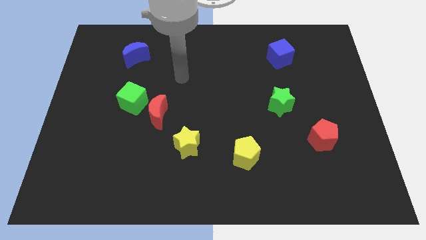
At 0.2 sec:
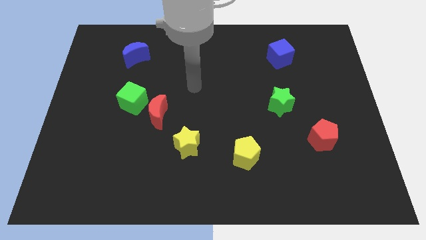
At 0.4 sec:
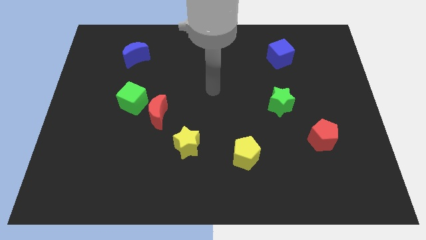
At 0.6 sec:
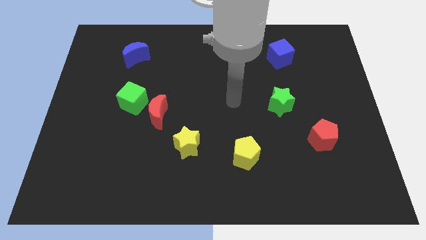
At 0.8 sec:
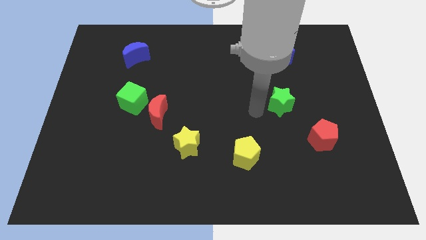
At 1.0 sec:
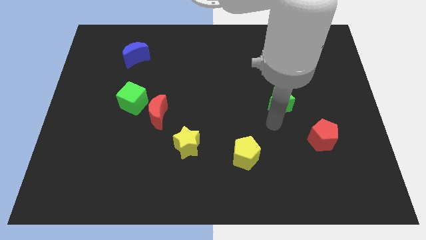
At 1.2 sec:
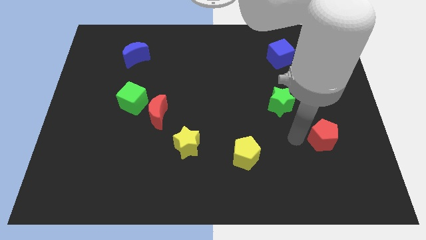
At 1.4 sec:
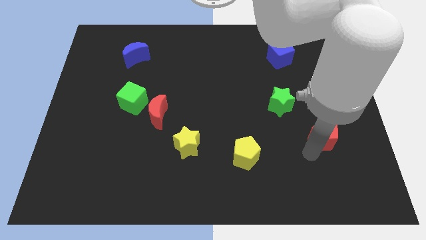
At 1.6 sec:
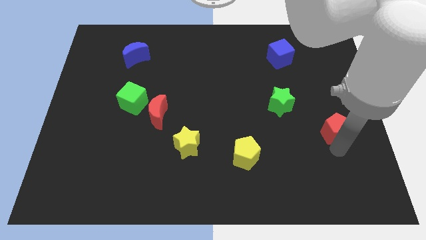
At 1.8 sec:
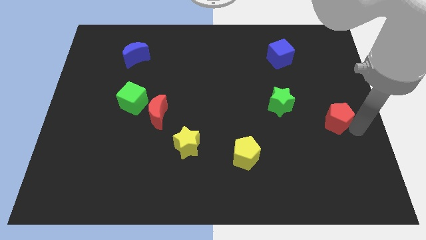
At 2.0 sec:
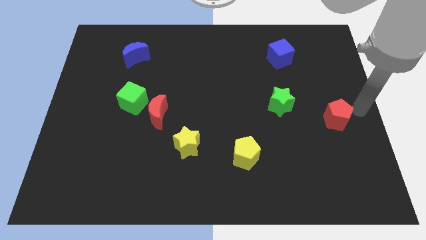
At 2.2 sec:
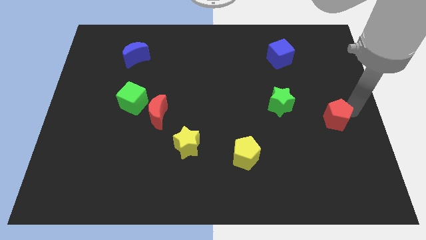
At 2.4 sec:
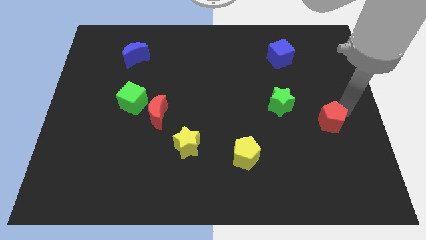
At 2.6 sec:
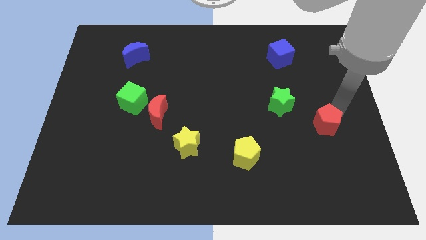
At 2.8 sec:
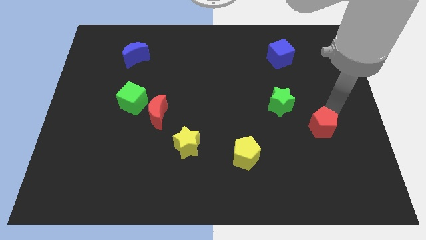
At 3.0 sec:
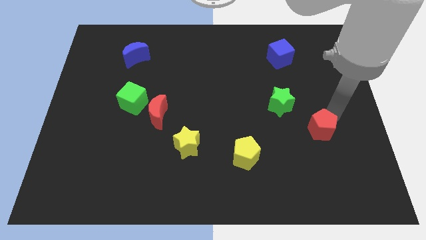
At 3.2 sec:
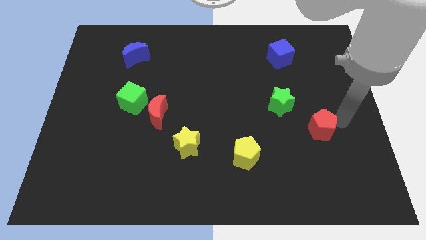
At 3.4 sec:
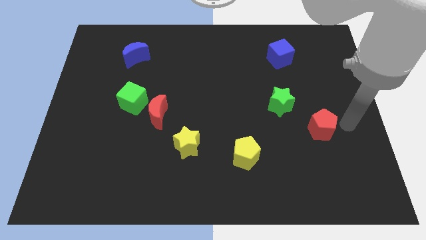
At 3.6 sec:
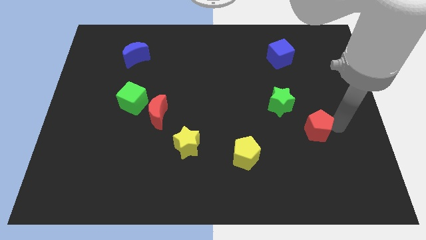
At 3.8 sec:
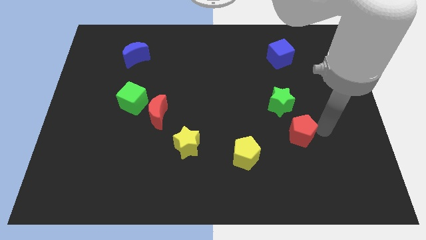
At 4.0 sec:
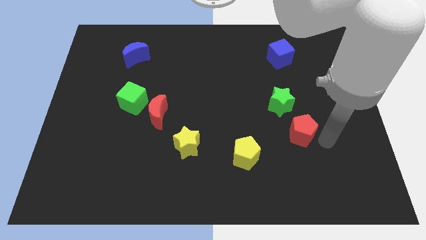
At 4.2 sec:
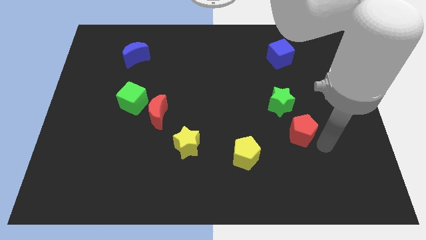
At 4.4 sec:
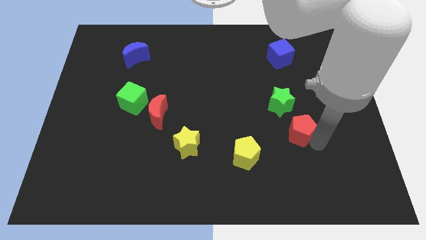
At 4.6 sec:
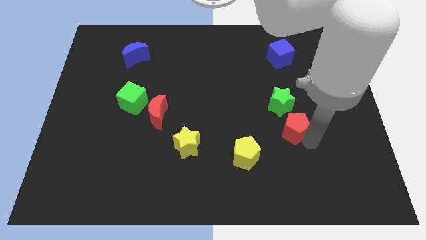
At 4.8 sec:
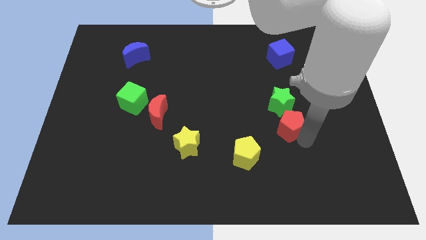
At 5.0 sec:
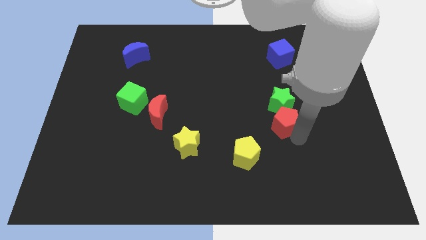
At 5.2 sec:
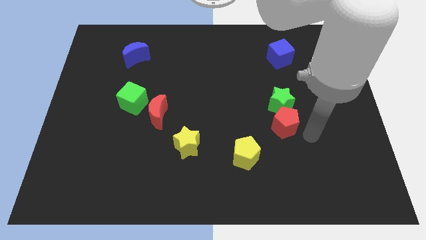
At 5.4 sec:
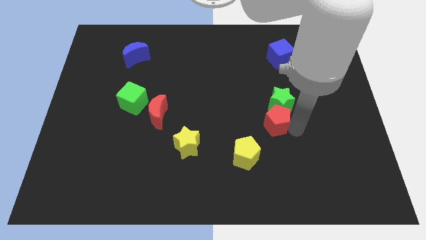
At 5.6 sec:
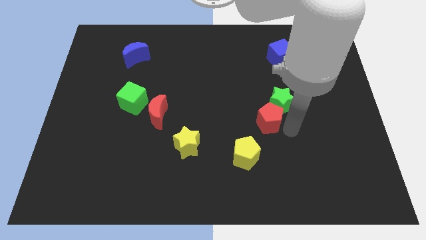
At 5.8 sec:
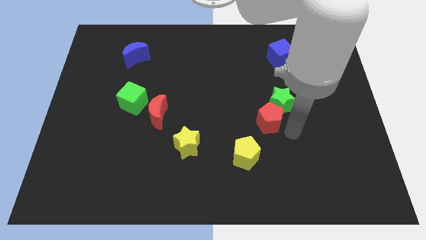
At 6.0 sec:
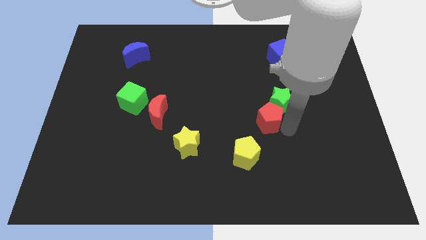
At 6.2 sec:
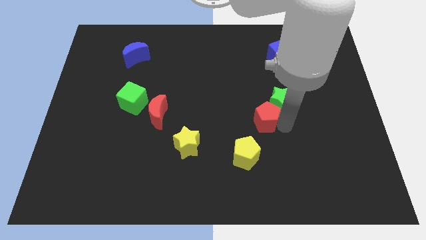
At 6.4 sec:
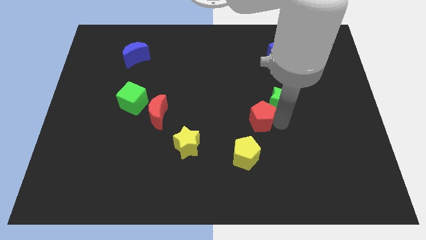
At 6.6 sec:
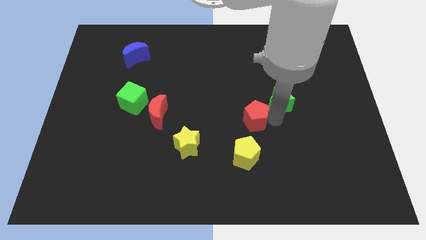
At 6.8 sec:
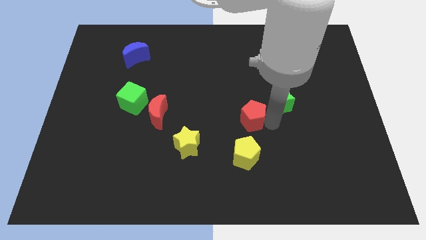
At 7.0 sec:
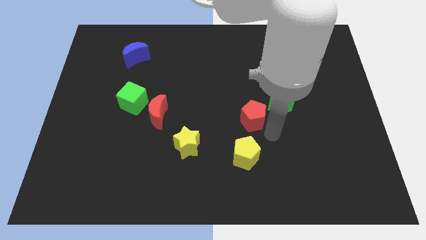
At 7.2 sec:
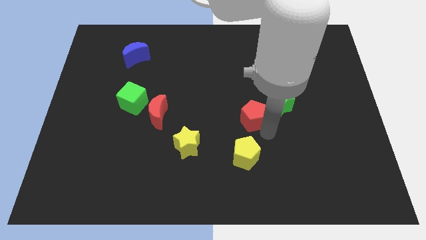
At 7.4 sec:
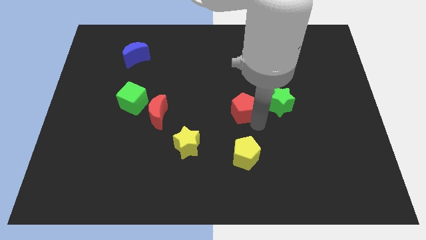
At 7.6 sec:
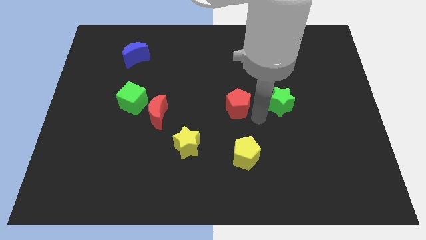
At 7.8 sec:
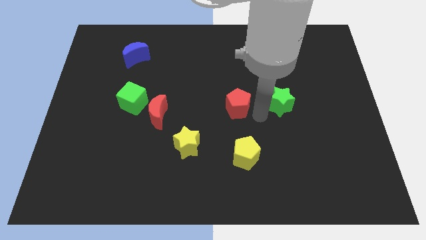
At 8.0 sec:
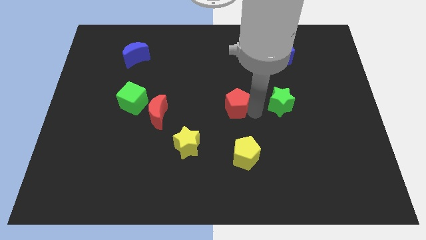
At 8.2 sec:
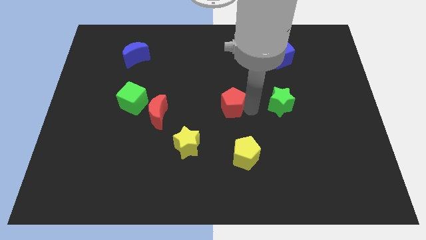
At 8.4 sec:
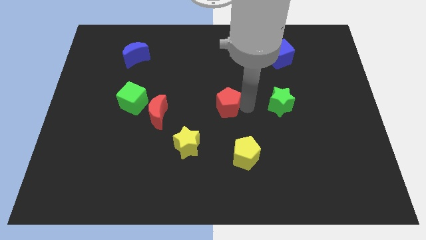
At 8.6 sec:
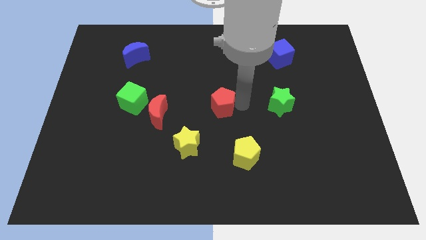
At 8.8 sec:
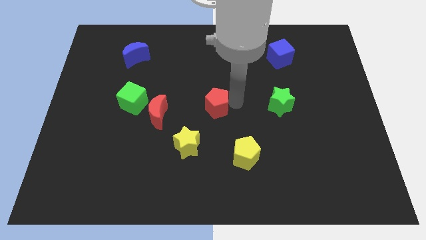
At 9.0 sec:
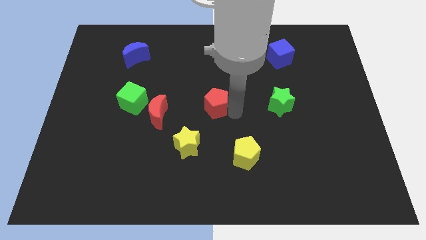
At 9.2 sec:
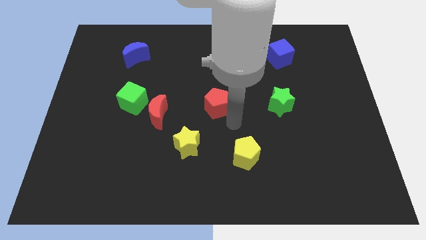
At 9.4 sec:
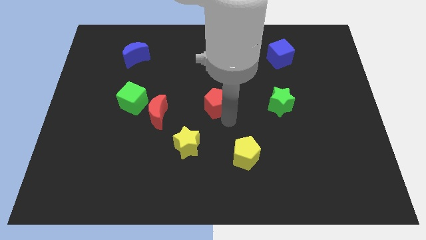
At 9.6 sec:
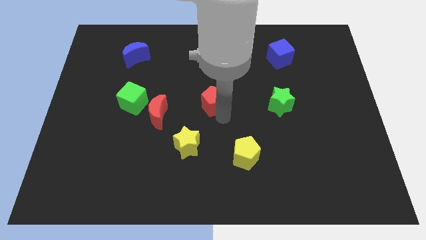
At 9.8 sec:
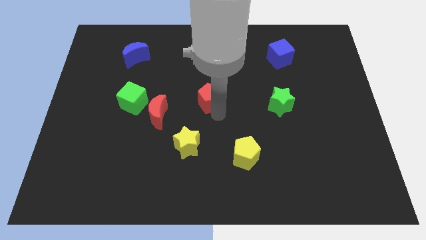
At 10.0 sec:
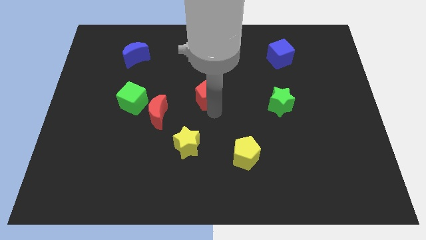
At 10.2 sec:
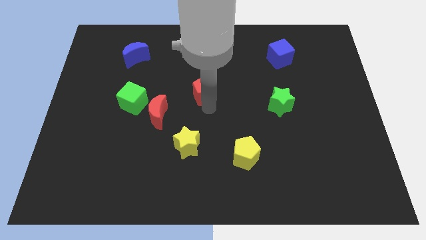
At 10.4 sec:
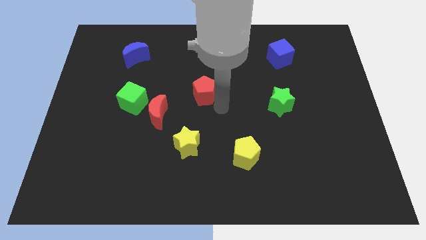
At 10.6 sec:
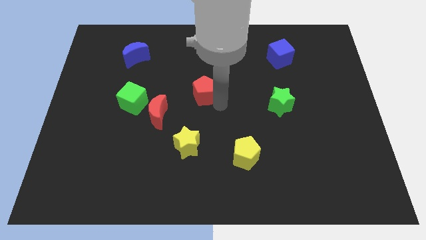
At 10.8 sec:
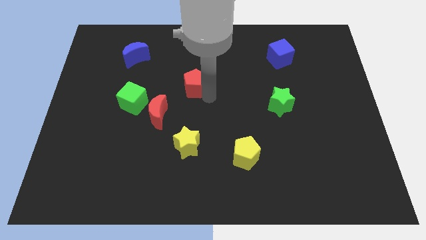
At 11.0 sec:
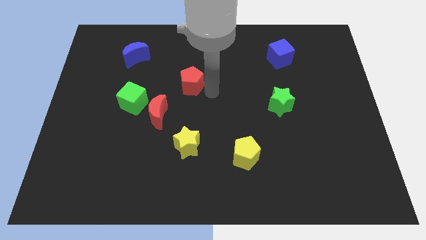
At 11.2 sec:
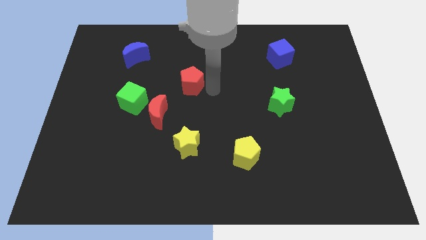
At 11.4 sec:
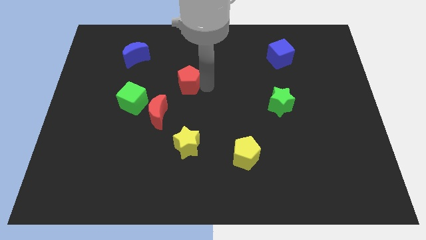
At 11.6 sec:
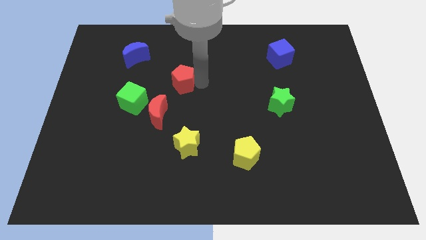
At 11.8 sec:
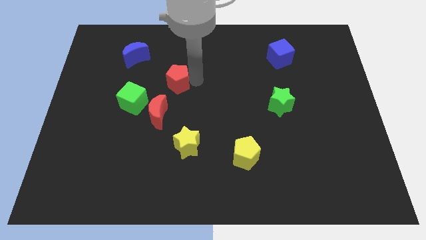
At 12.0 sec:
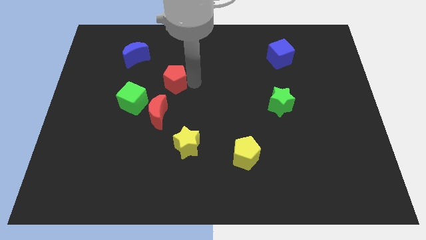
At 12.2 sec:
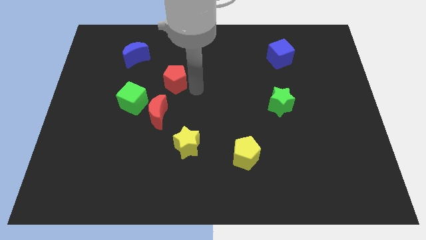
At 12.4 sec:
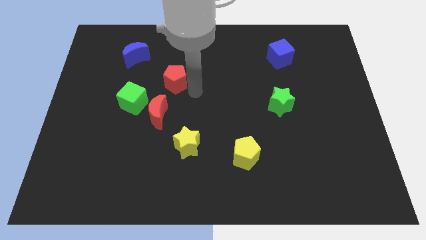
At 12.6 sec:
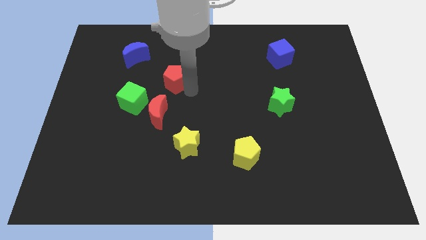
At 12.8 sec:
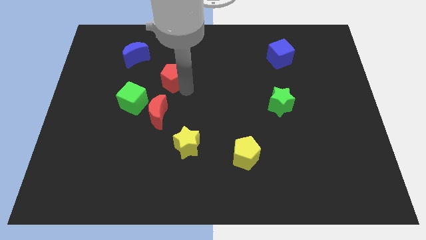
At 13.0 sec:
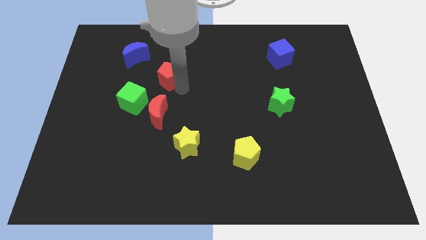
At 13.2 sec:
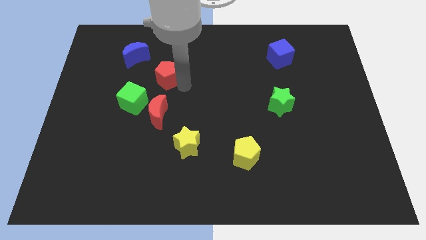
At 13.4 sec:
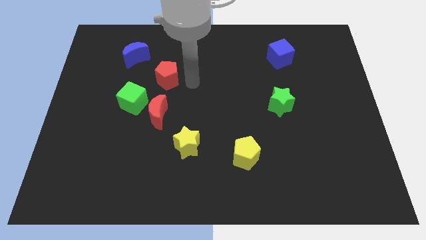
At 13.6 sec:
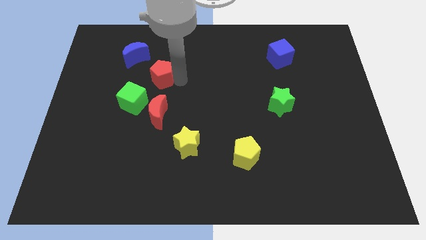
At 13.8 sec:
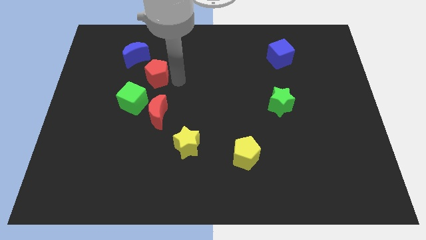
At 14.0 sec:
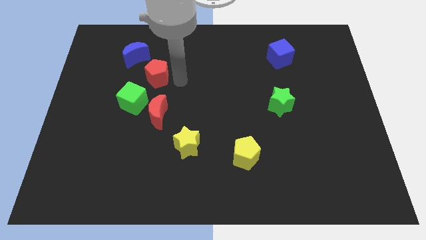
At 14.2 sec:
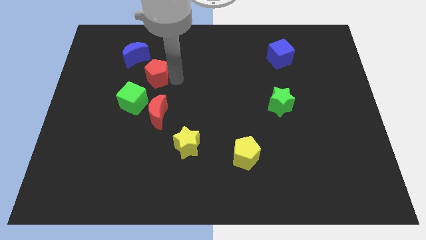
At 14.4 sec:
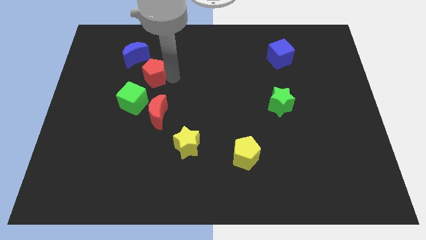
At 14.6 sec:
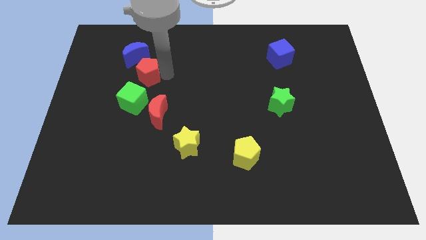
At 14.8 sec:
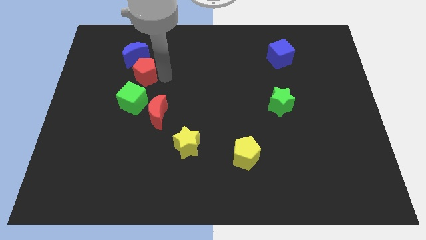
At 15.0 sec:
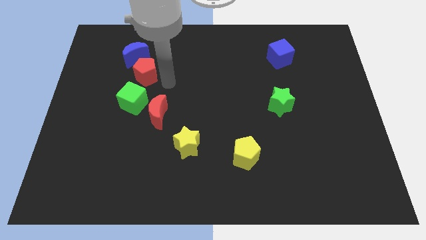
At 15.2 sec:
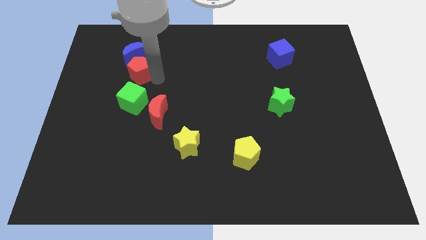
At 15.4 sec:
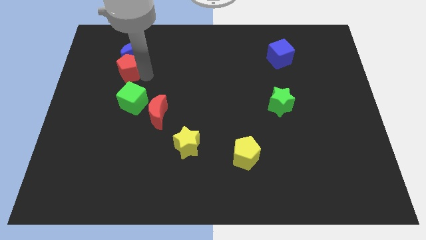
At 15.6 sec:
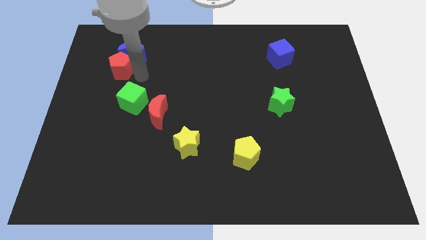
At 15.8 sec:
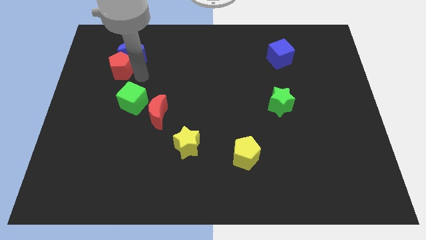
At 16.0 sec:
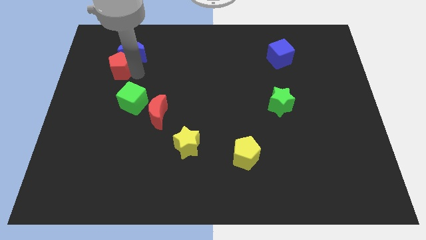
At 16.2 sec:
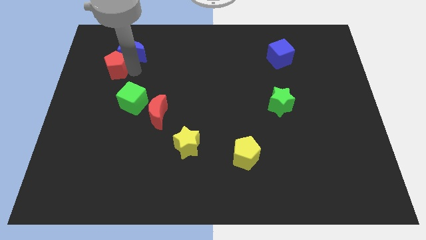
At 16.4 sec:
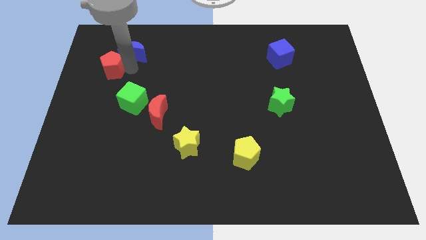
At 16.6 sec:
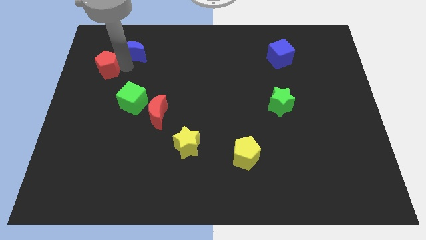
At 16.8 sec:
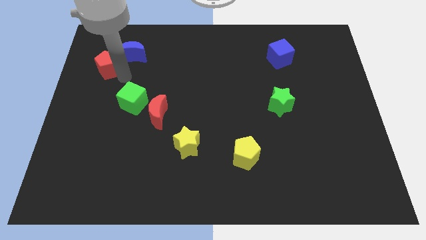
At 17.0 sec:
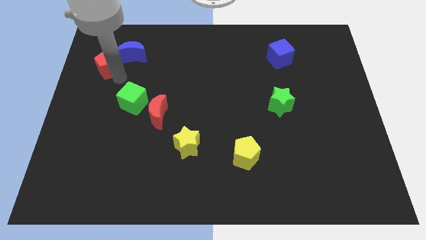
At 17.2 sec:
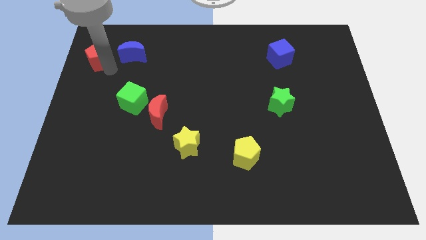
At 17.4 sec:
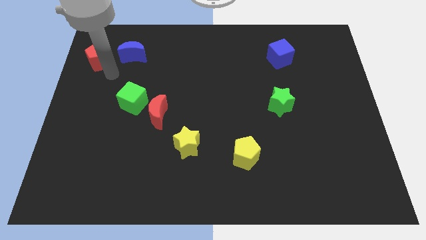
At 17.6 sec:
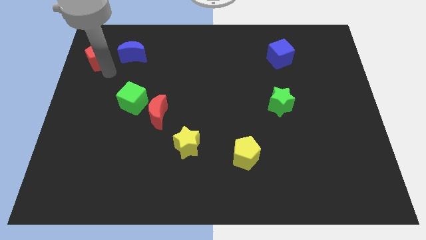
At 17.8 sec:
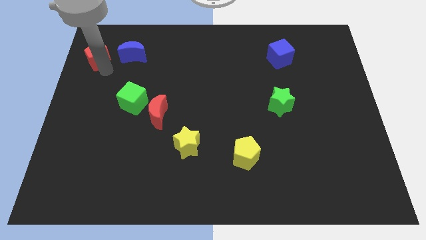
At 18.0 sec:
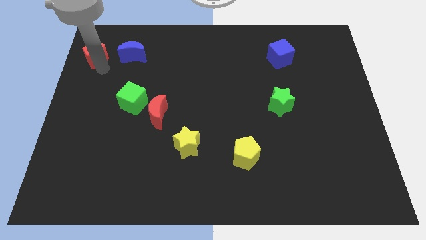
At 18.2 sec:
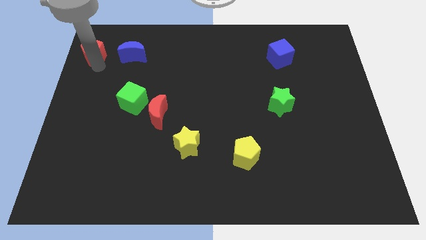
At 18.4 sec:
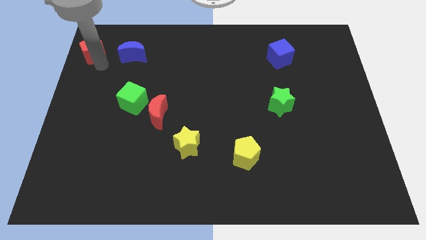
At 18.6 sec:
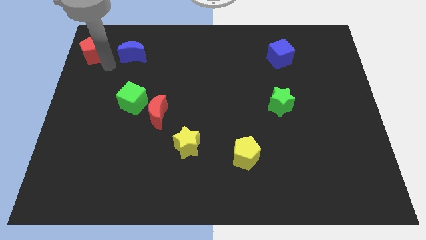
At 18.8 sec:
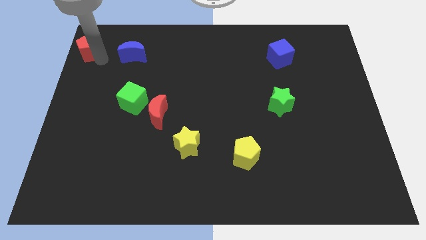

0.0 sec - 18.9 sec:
put the red pentagon to the top left
